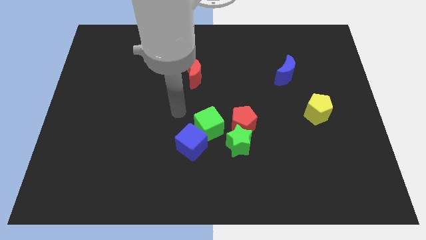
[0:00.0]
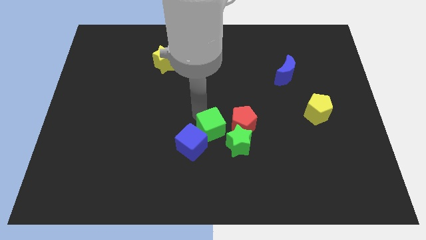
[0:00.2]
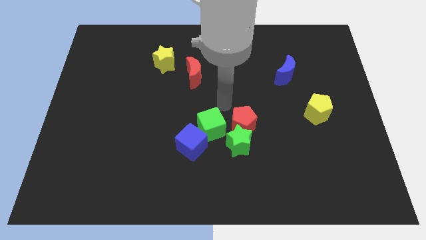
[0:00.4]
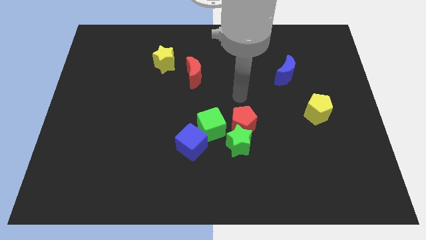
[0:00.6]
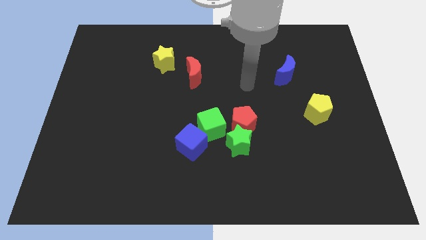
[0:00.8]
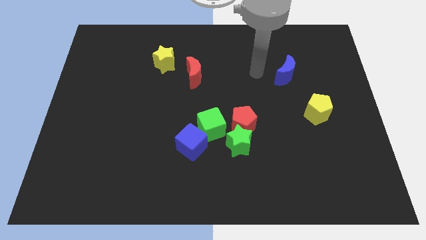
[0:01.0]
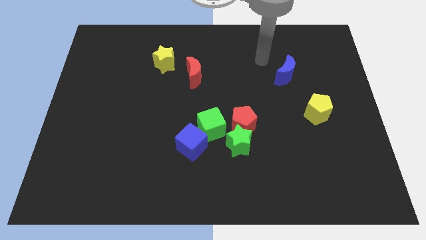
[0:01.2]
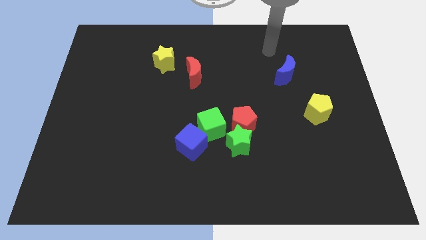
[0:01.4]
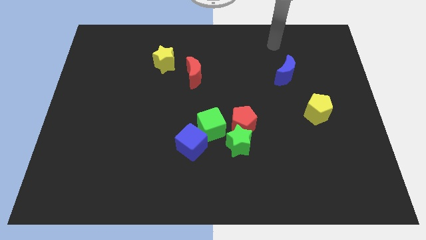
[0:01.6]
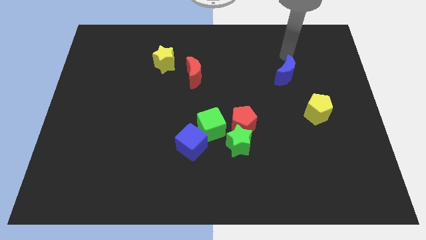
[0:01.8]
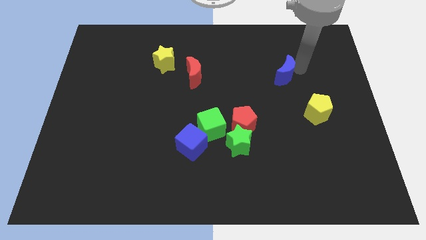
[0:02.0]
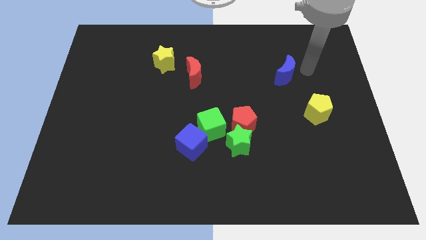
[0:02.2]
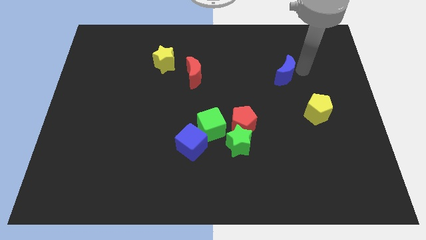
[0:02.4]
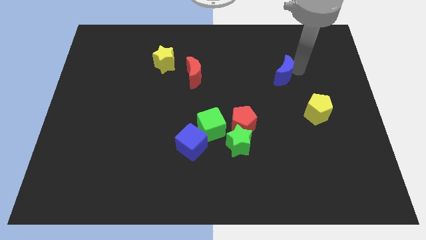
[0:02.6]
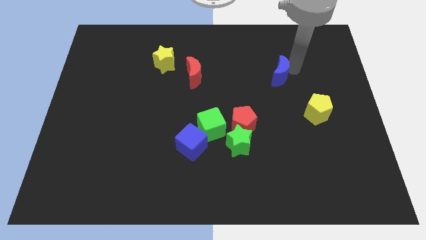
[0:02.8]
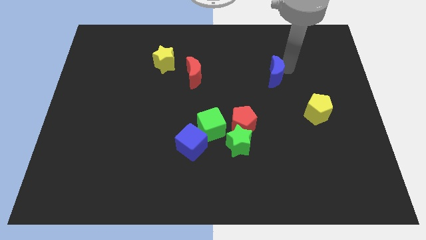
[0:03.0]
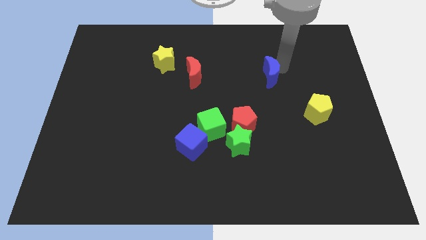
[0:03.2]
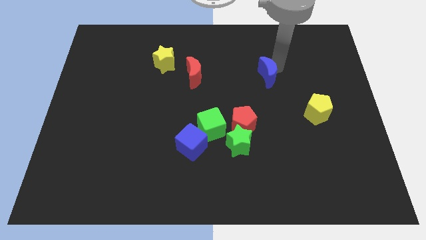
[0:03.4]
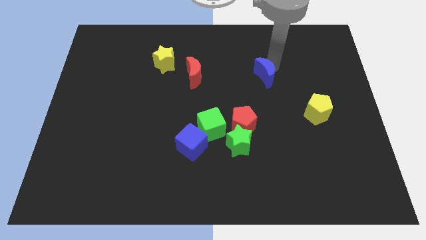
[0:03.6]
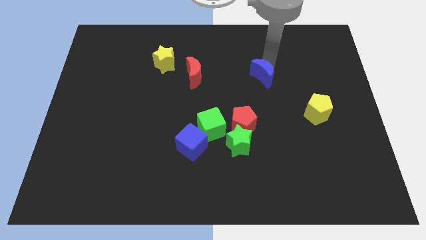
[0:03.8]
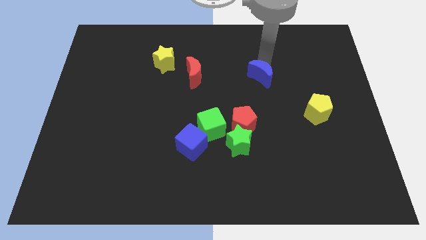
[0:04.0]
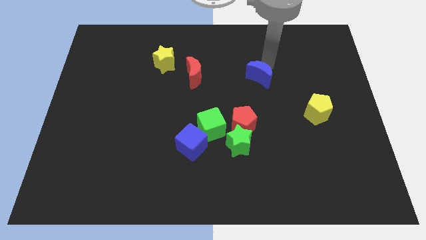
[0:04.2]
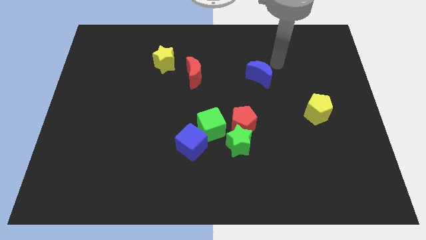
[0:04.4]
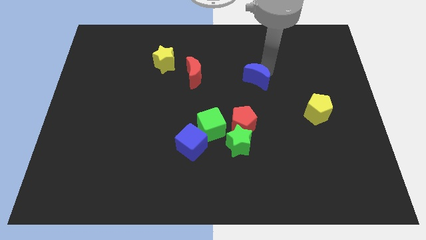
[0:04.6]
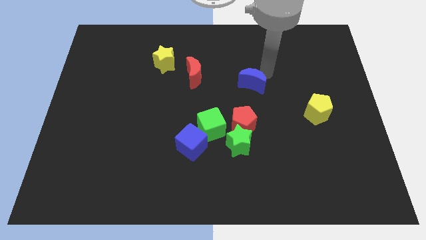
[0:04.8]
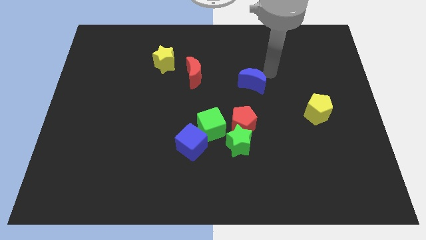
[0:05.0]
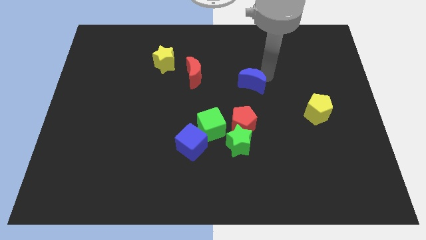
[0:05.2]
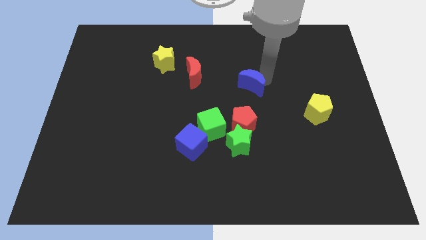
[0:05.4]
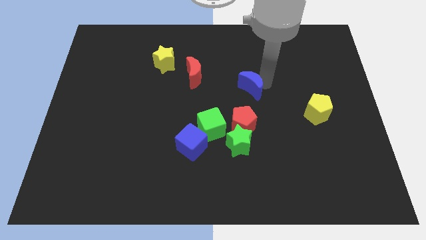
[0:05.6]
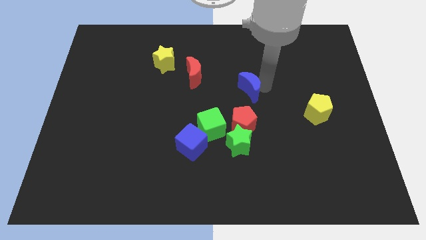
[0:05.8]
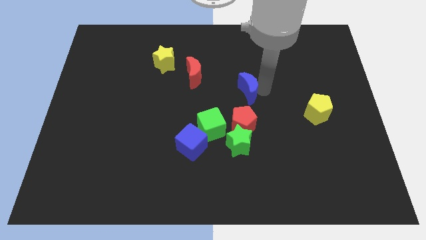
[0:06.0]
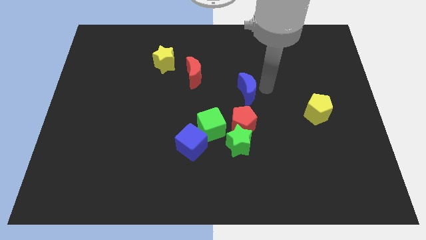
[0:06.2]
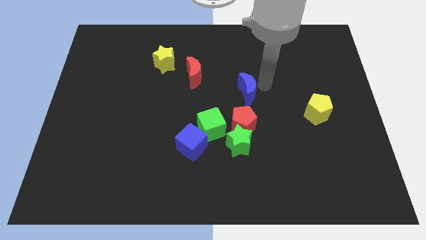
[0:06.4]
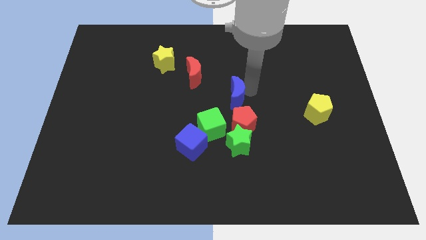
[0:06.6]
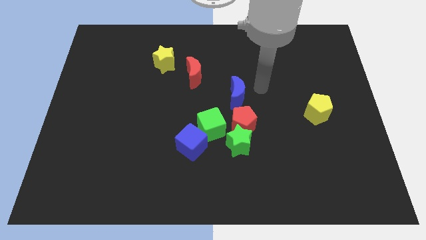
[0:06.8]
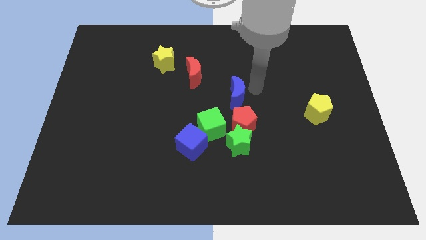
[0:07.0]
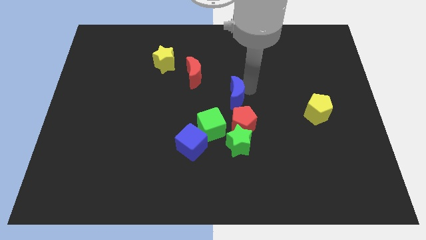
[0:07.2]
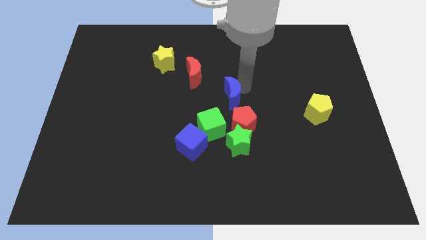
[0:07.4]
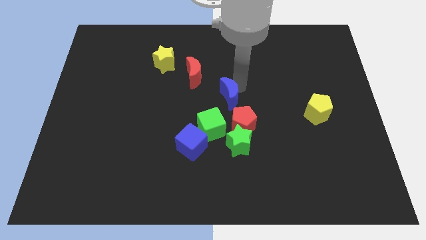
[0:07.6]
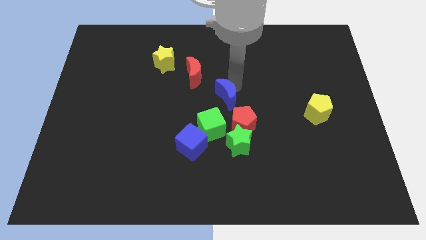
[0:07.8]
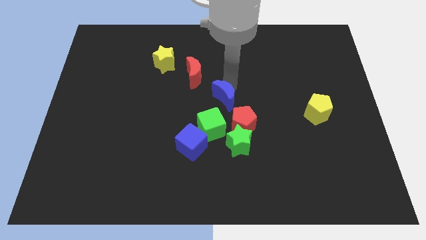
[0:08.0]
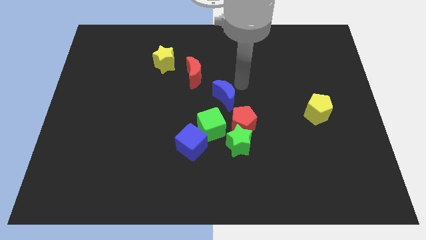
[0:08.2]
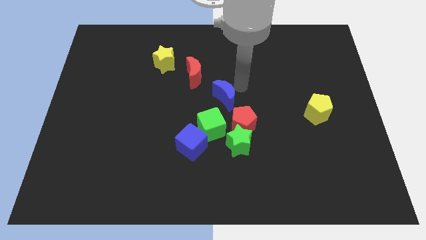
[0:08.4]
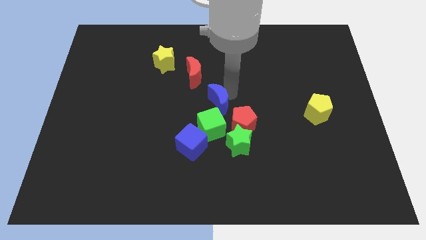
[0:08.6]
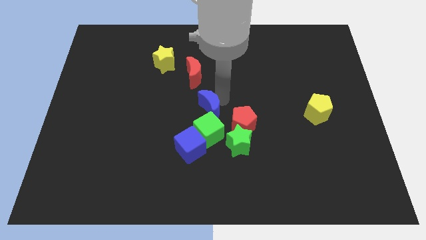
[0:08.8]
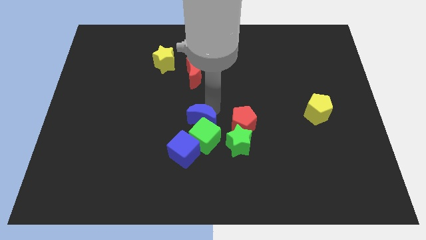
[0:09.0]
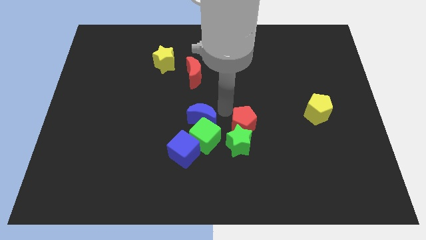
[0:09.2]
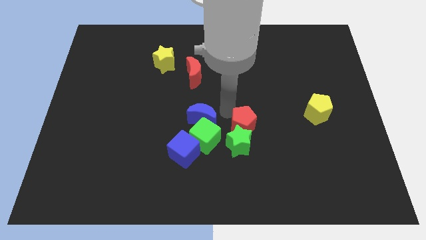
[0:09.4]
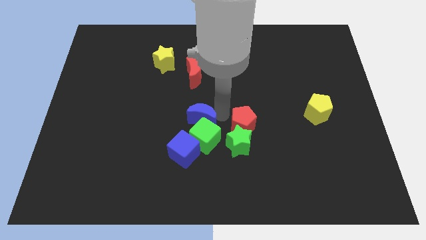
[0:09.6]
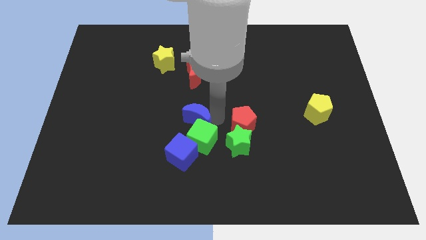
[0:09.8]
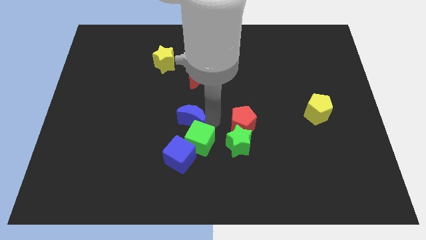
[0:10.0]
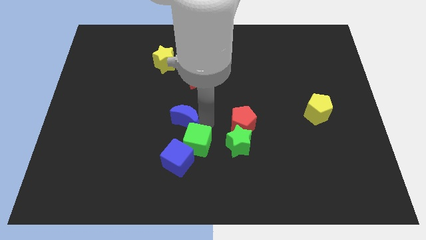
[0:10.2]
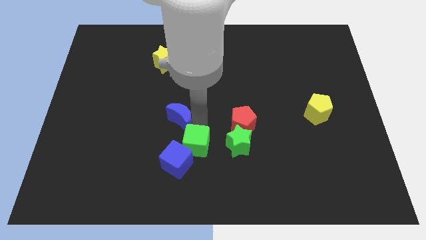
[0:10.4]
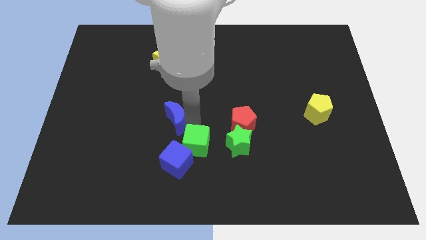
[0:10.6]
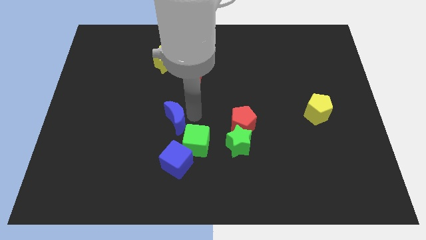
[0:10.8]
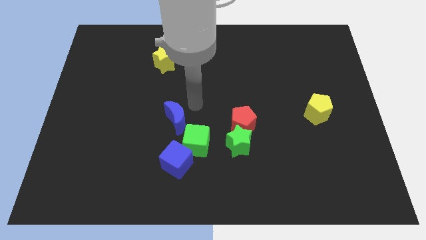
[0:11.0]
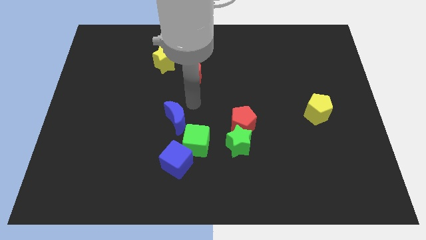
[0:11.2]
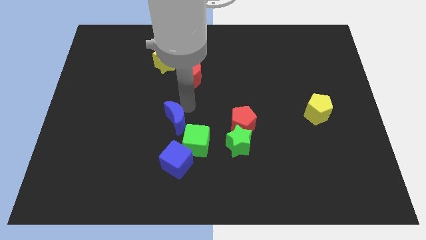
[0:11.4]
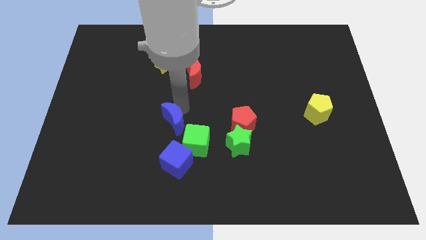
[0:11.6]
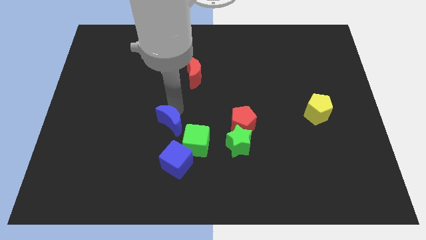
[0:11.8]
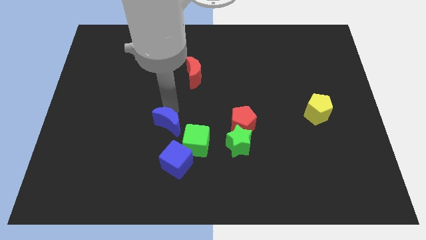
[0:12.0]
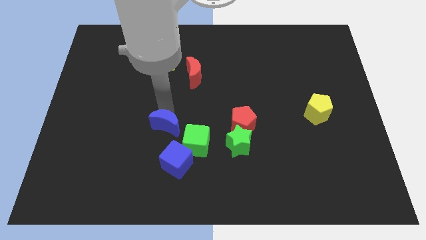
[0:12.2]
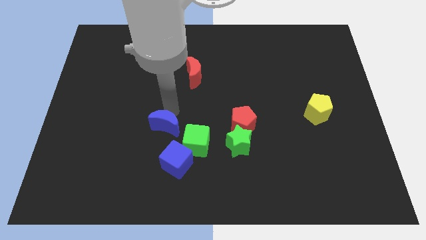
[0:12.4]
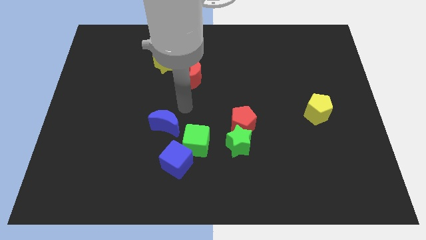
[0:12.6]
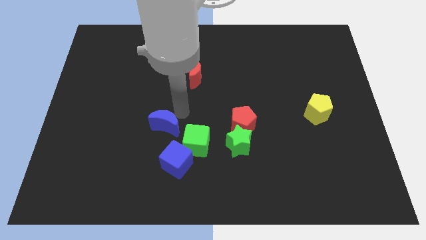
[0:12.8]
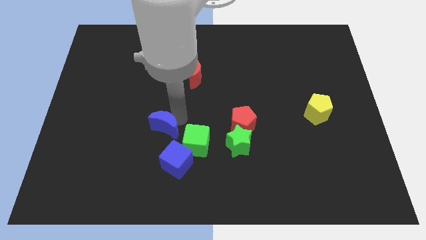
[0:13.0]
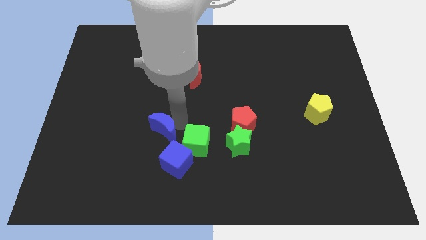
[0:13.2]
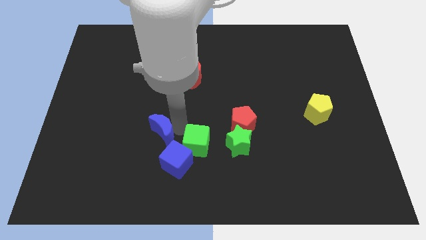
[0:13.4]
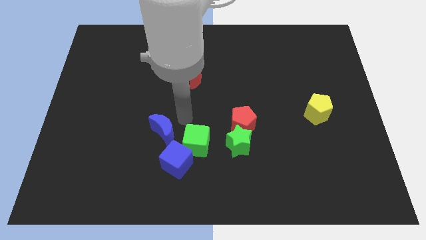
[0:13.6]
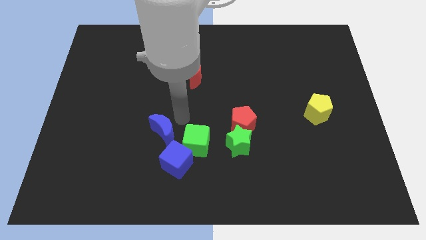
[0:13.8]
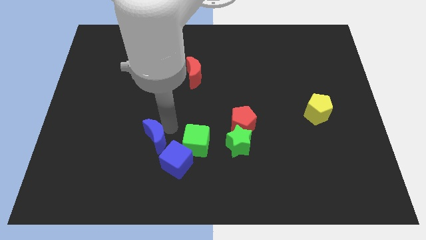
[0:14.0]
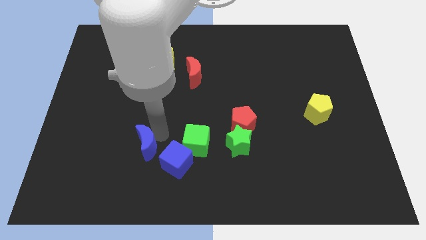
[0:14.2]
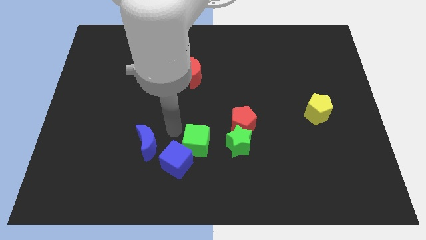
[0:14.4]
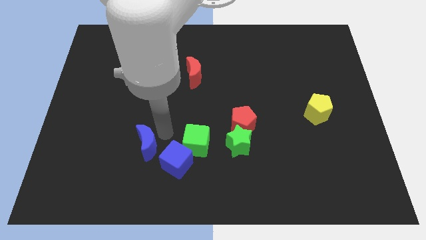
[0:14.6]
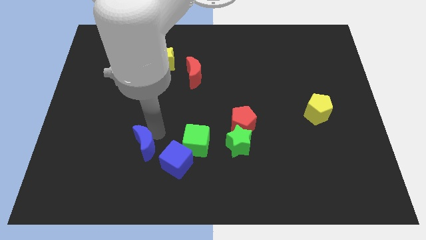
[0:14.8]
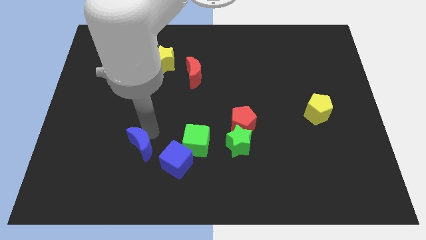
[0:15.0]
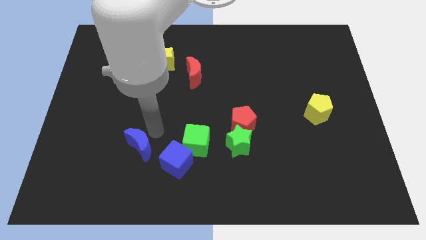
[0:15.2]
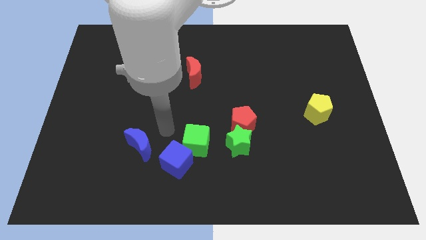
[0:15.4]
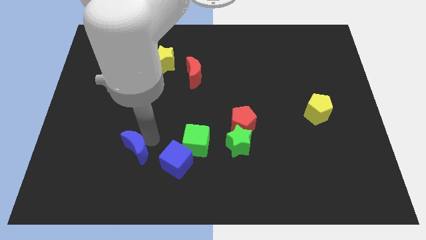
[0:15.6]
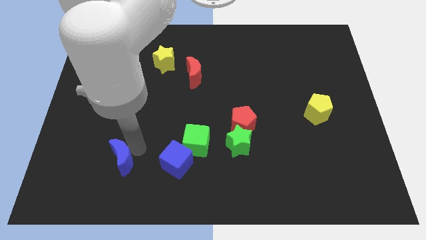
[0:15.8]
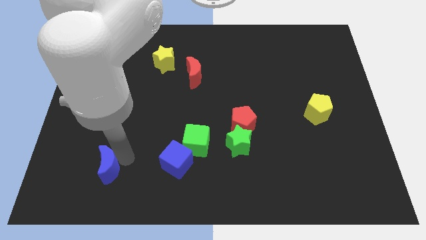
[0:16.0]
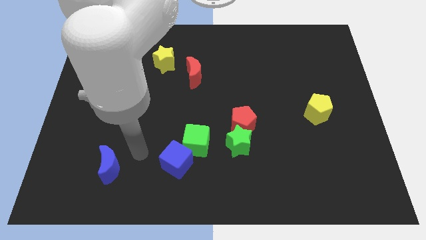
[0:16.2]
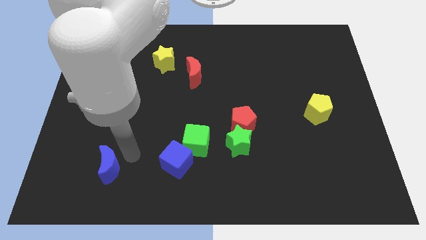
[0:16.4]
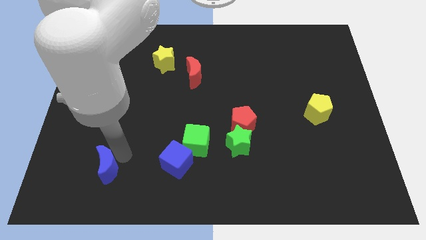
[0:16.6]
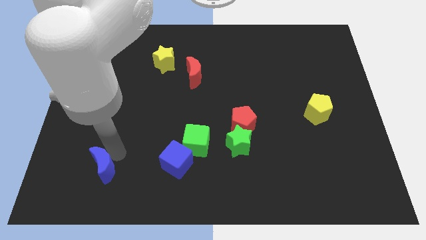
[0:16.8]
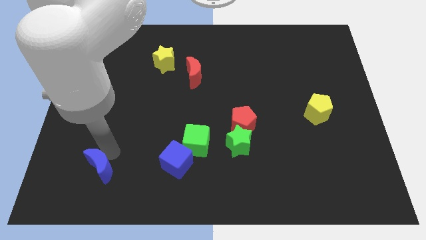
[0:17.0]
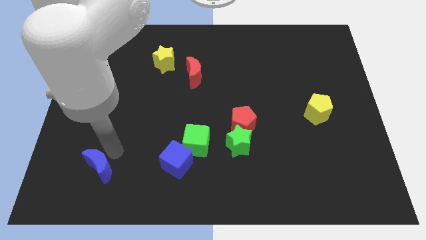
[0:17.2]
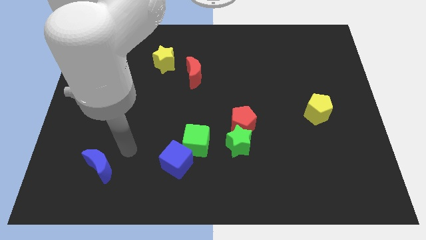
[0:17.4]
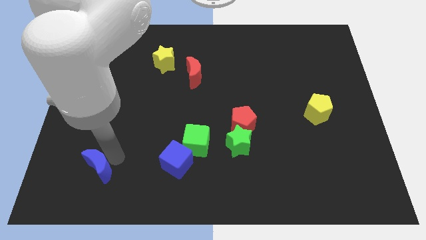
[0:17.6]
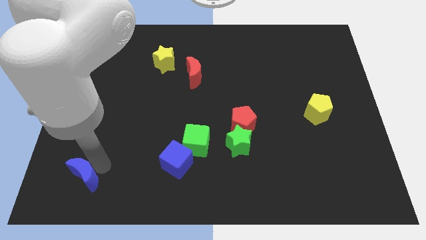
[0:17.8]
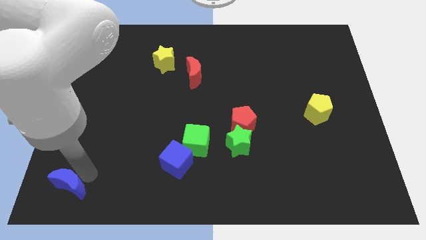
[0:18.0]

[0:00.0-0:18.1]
put the blue moon to the bottom left of the board
